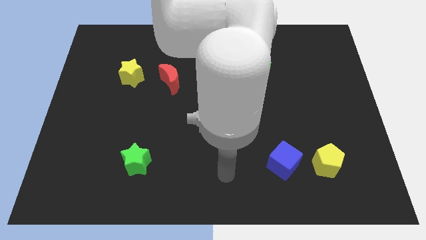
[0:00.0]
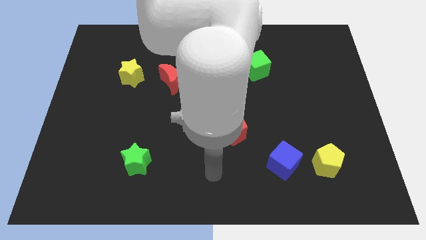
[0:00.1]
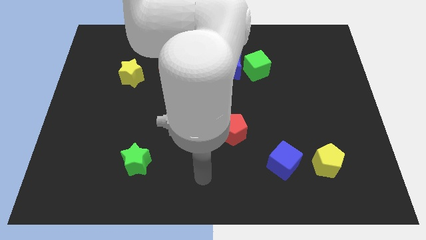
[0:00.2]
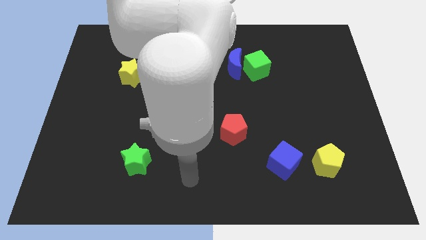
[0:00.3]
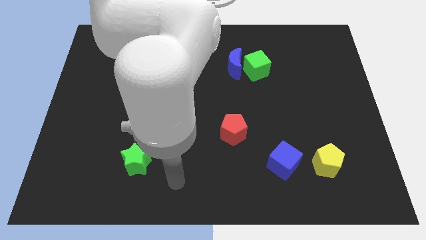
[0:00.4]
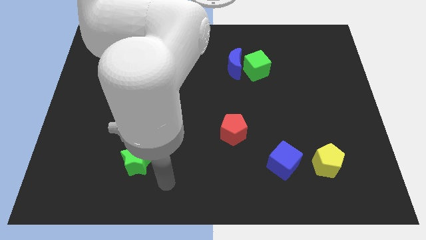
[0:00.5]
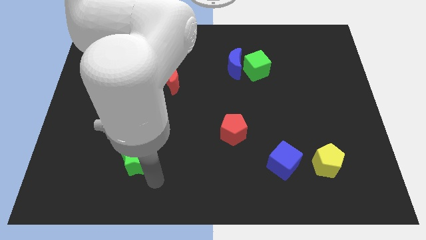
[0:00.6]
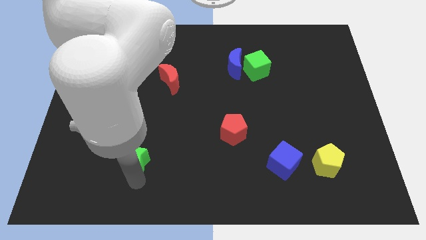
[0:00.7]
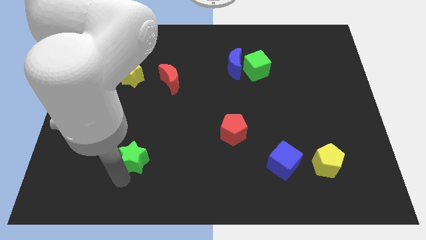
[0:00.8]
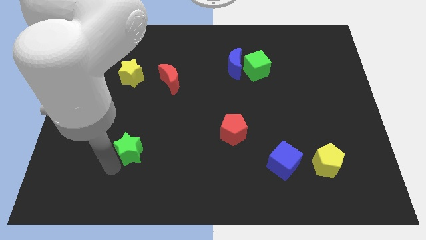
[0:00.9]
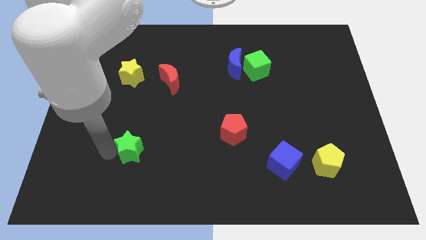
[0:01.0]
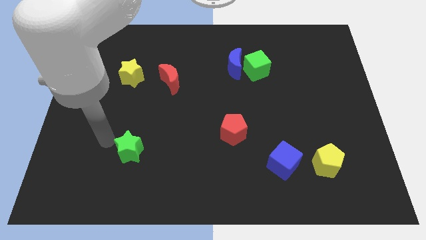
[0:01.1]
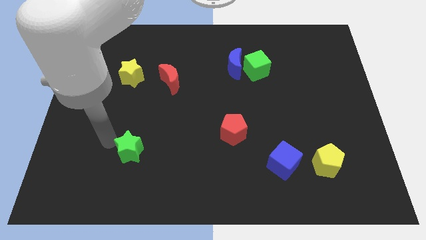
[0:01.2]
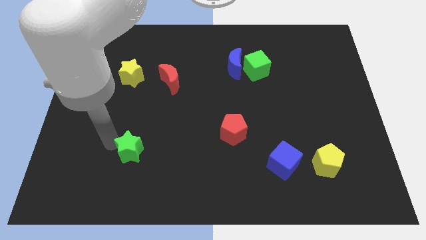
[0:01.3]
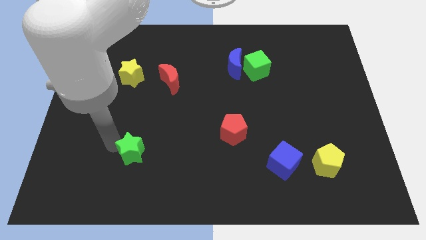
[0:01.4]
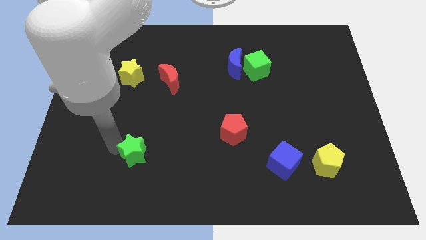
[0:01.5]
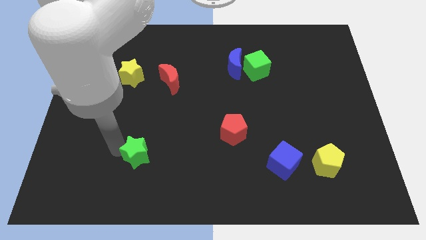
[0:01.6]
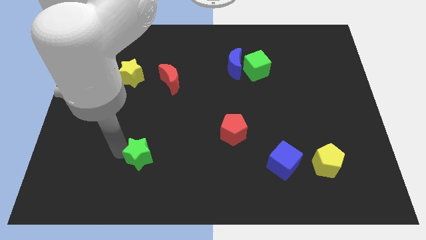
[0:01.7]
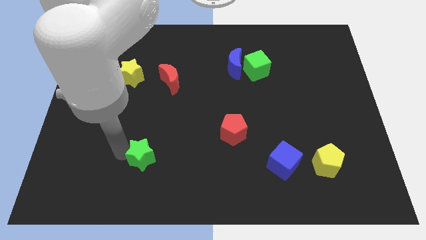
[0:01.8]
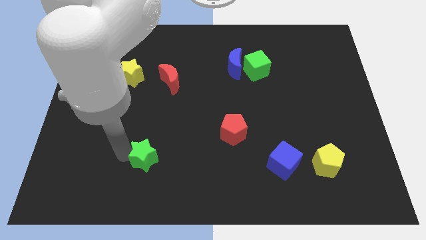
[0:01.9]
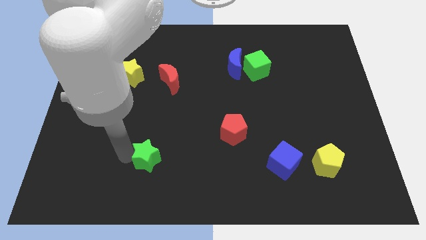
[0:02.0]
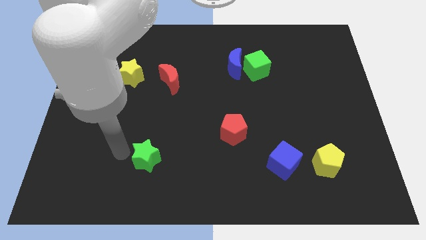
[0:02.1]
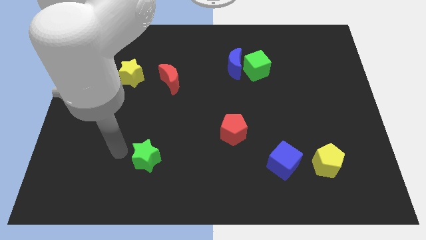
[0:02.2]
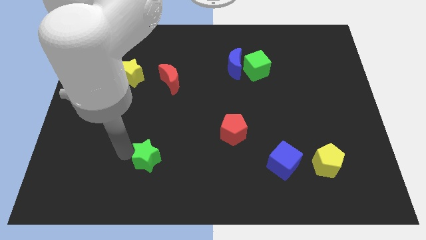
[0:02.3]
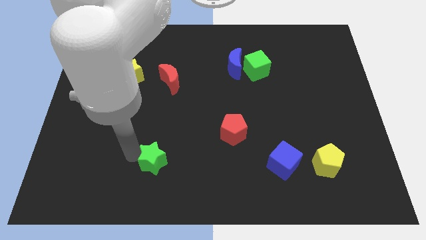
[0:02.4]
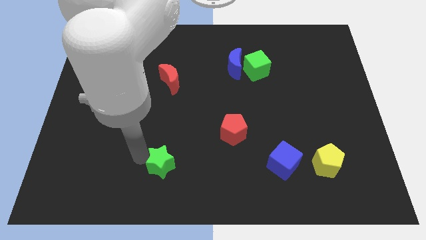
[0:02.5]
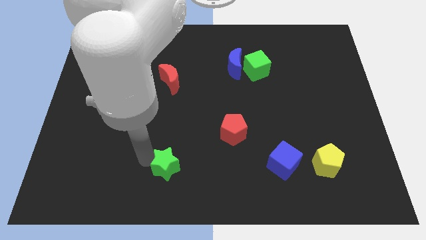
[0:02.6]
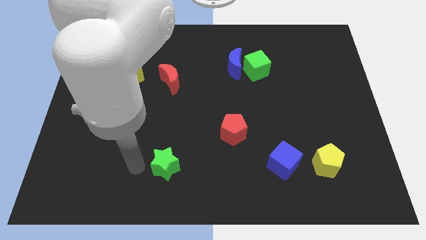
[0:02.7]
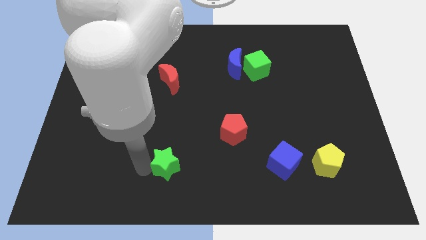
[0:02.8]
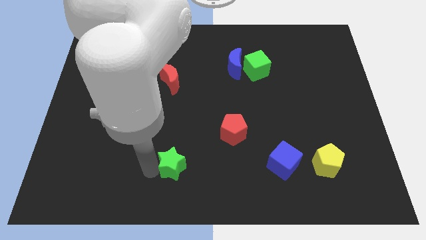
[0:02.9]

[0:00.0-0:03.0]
slightly push the green star to the right

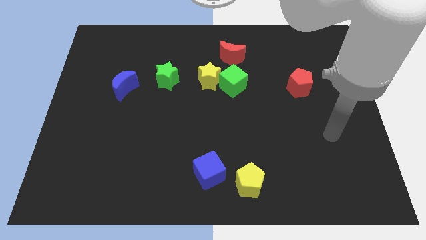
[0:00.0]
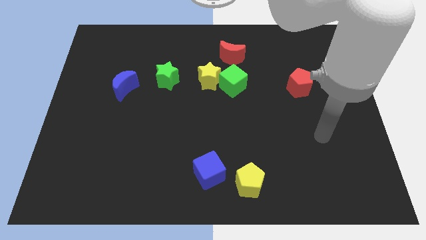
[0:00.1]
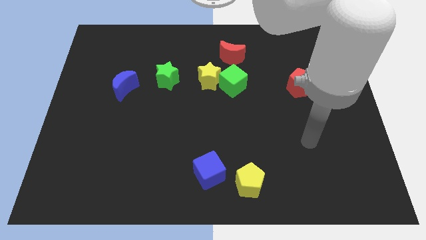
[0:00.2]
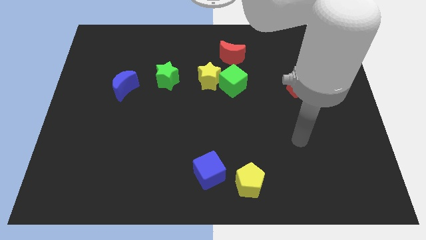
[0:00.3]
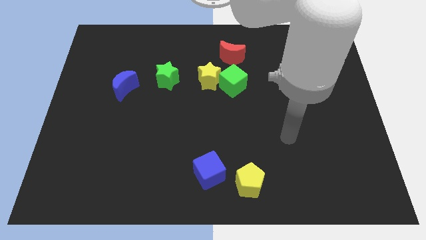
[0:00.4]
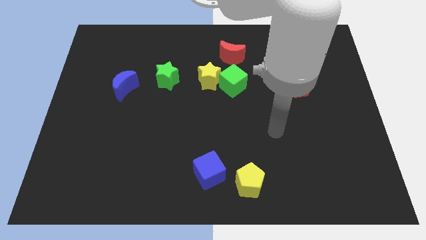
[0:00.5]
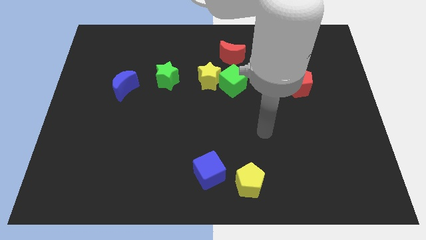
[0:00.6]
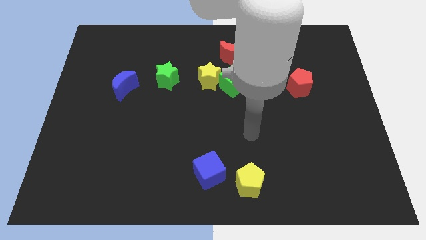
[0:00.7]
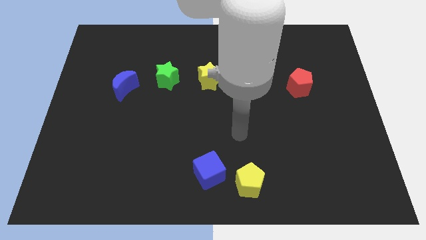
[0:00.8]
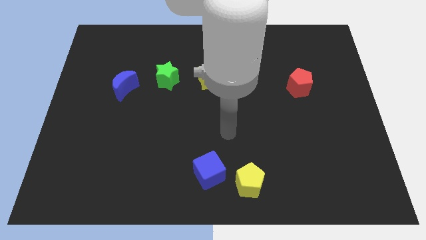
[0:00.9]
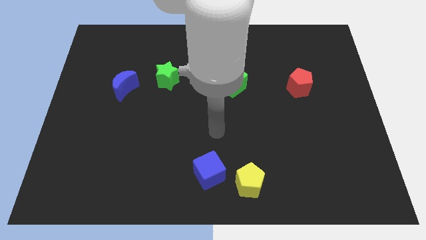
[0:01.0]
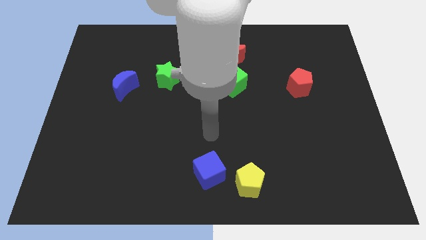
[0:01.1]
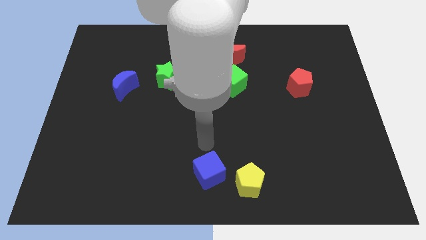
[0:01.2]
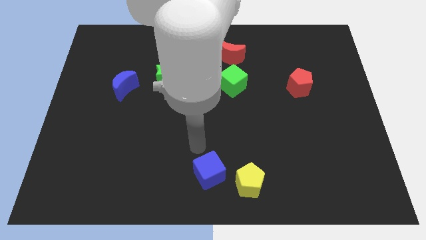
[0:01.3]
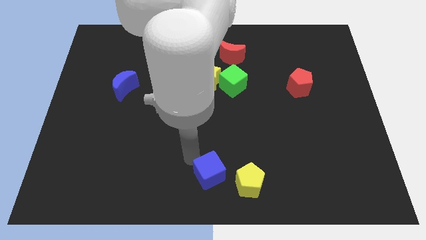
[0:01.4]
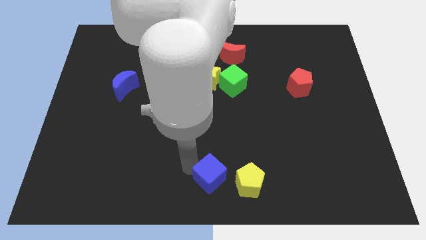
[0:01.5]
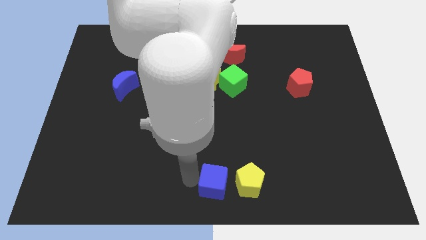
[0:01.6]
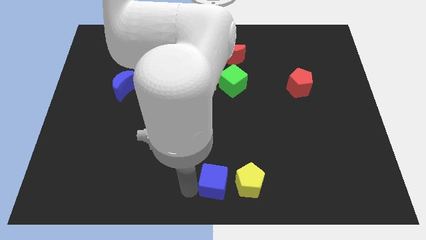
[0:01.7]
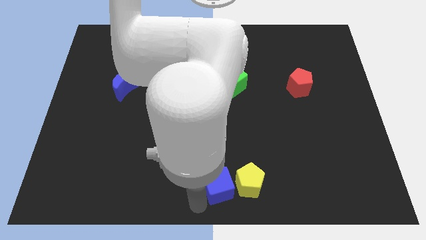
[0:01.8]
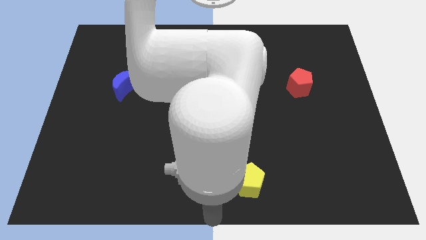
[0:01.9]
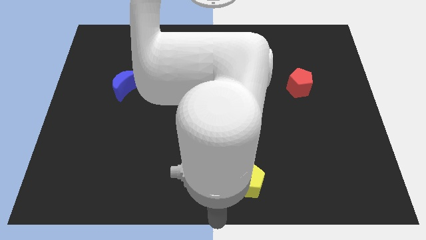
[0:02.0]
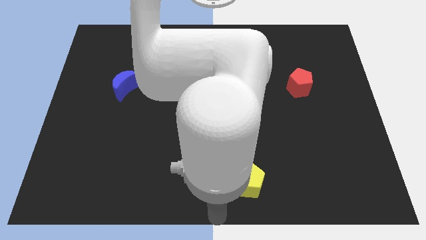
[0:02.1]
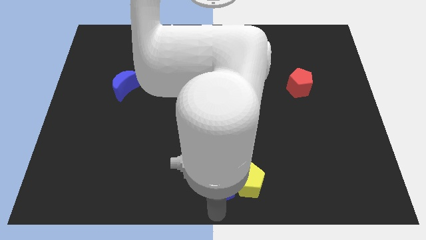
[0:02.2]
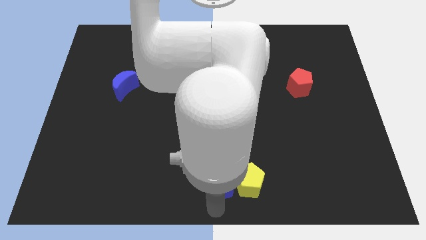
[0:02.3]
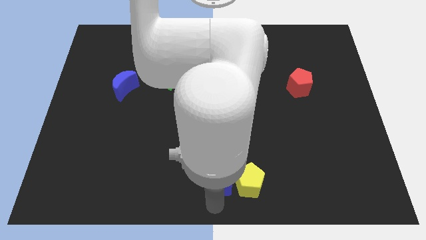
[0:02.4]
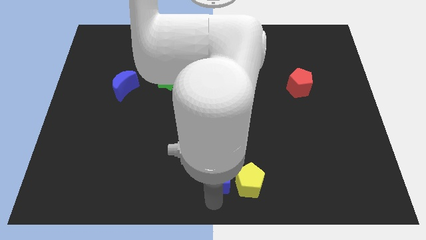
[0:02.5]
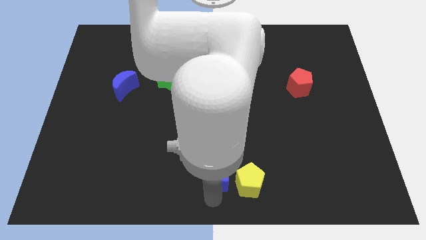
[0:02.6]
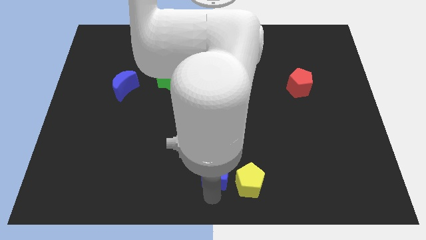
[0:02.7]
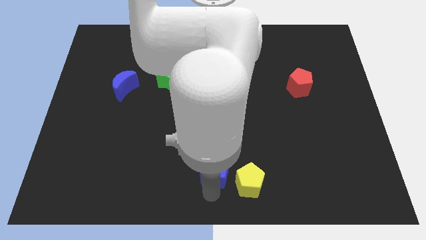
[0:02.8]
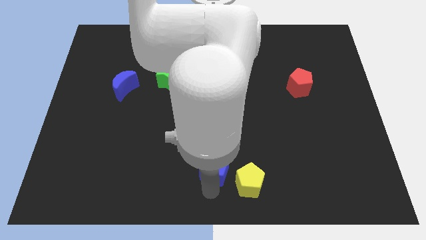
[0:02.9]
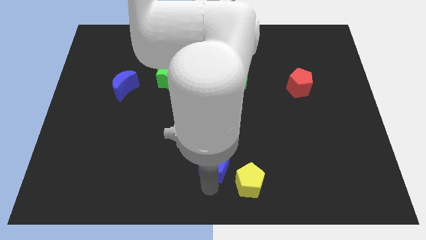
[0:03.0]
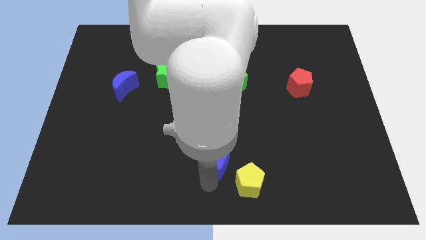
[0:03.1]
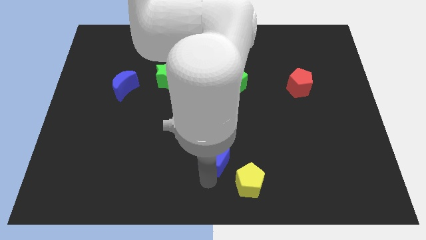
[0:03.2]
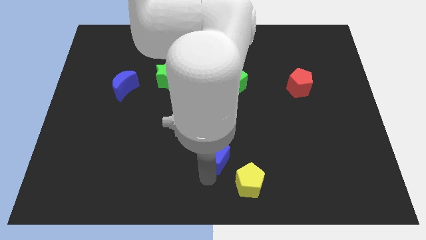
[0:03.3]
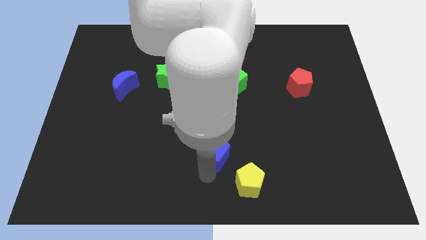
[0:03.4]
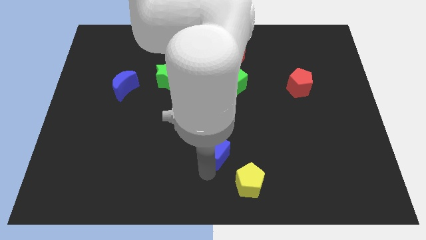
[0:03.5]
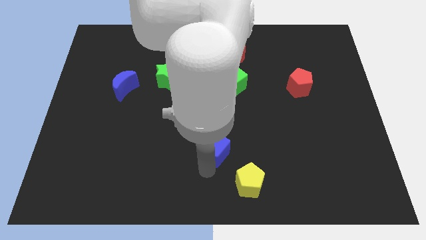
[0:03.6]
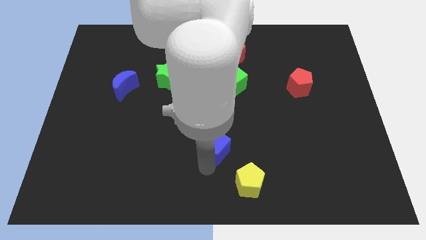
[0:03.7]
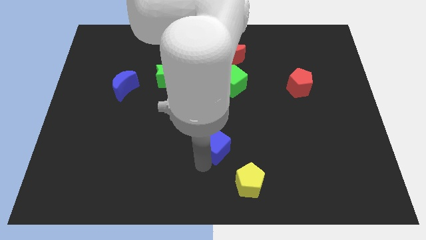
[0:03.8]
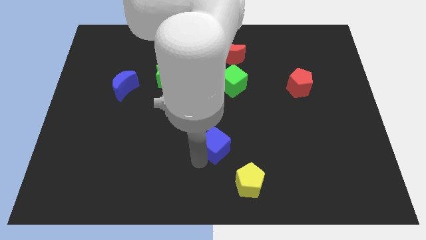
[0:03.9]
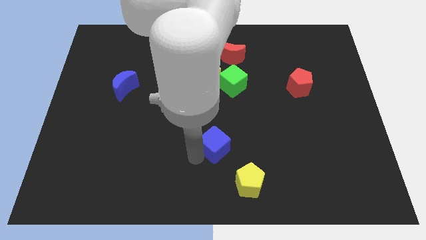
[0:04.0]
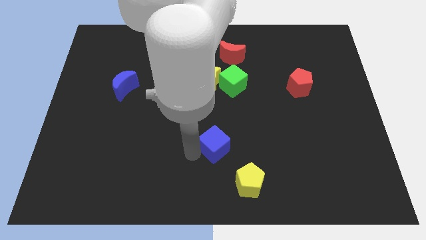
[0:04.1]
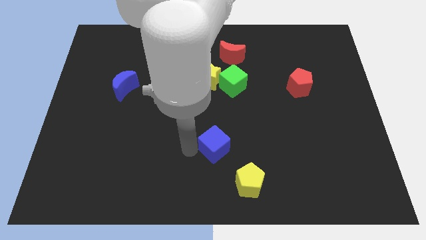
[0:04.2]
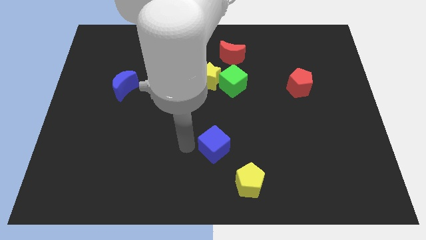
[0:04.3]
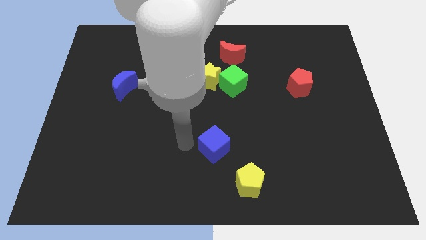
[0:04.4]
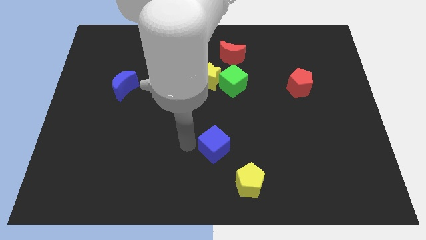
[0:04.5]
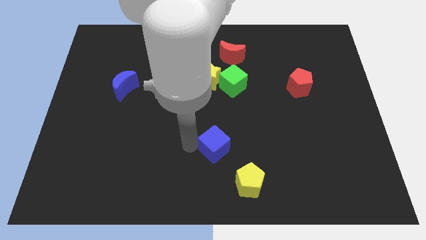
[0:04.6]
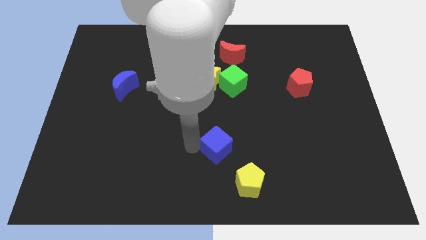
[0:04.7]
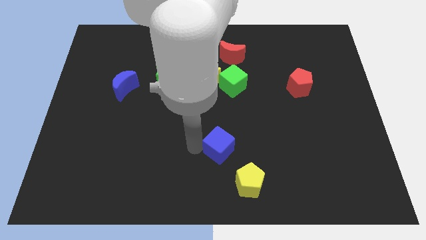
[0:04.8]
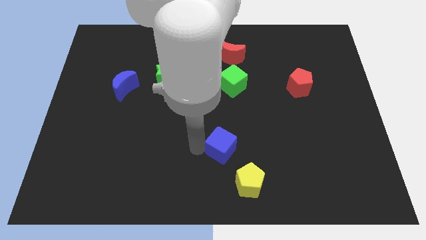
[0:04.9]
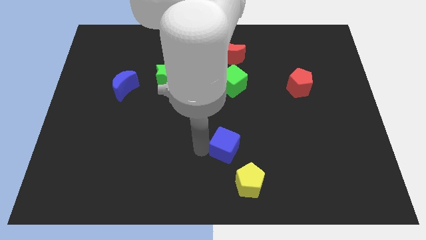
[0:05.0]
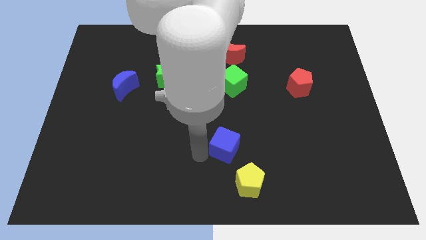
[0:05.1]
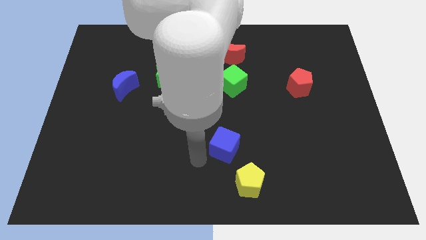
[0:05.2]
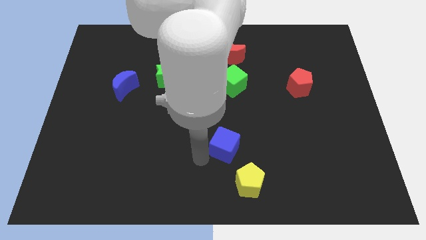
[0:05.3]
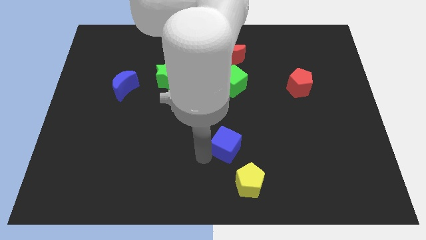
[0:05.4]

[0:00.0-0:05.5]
move the blue cube slightly up and right
